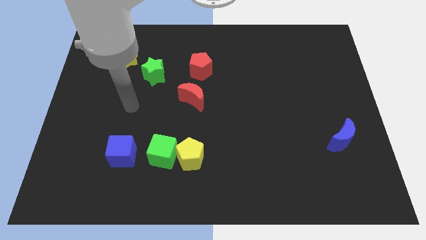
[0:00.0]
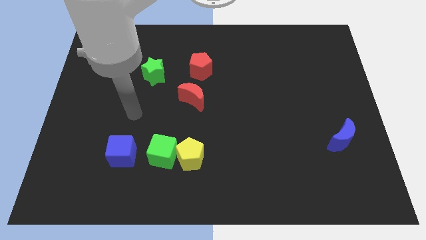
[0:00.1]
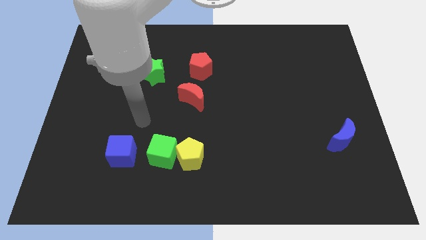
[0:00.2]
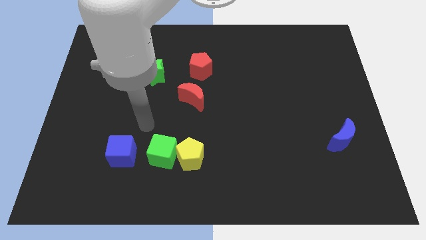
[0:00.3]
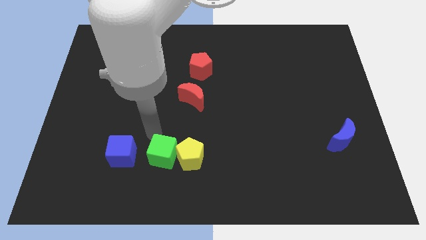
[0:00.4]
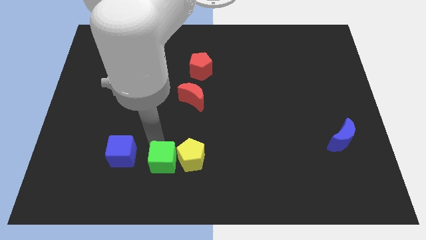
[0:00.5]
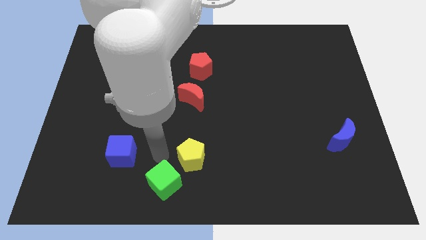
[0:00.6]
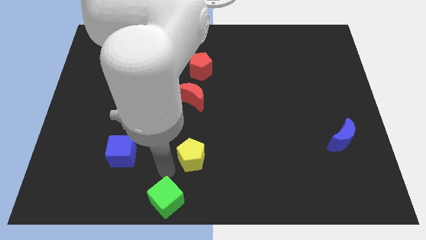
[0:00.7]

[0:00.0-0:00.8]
separate the yellow pentagon from the green cube

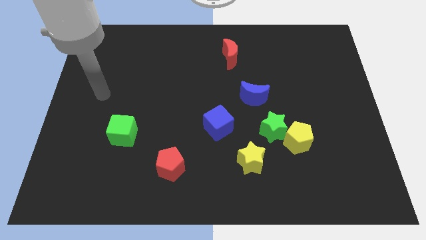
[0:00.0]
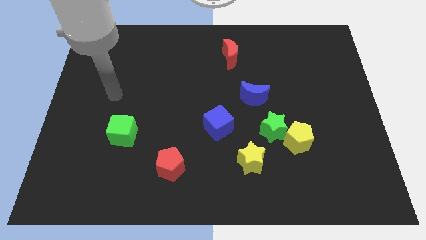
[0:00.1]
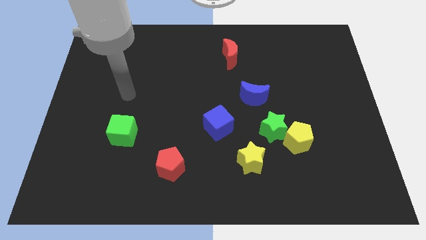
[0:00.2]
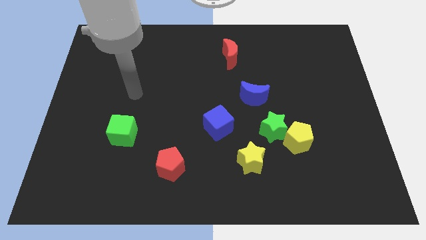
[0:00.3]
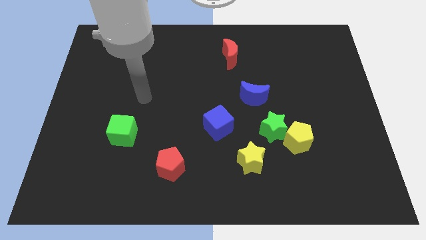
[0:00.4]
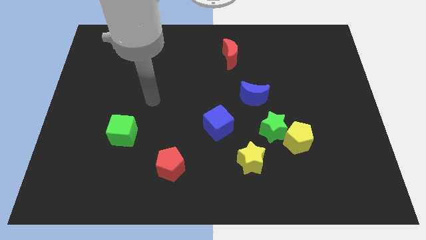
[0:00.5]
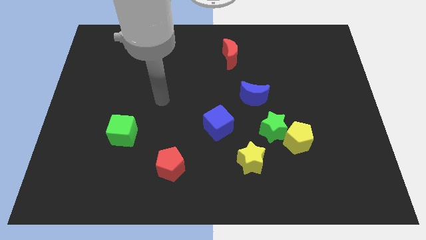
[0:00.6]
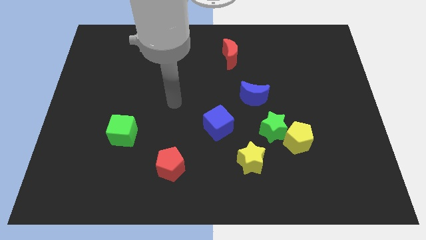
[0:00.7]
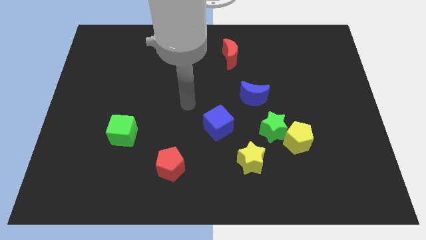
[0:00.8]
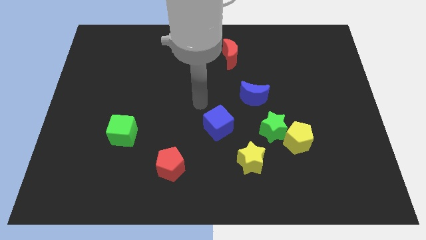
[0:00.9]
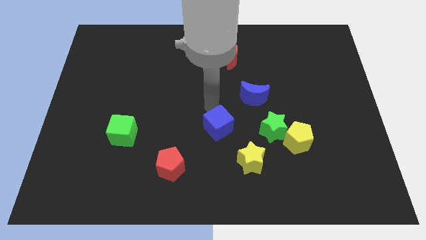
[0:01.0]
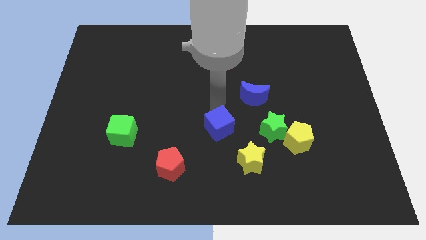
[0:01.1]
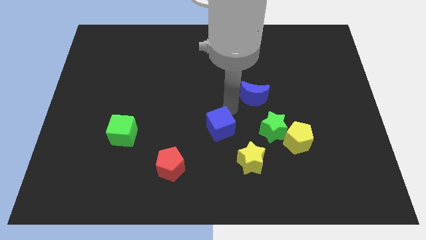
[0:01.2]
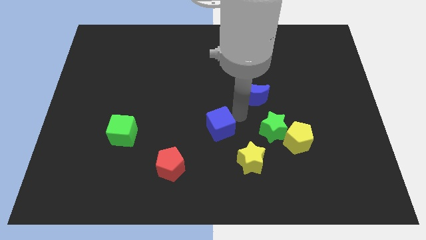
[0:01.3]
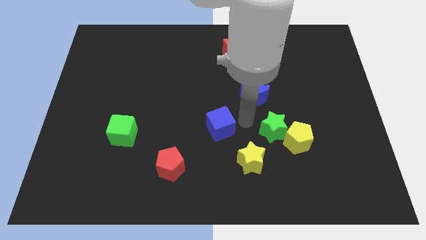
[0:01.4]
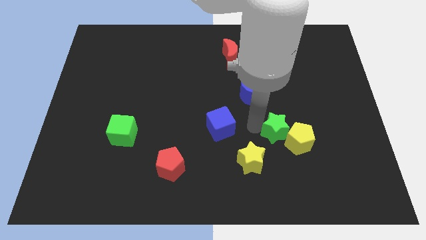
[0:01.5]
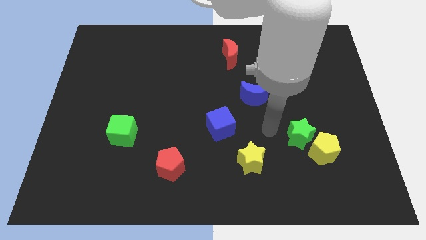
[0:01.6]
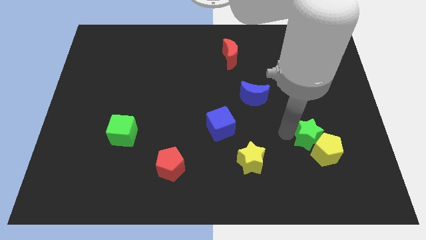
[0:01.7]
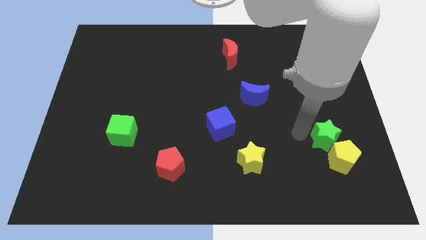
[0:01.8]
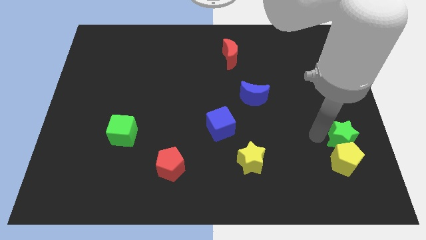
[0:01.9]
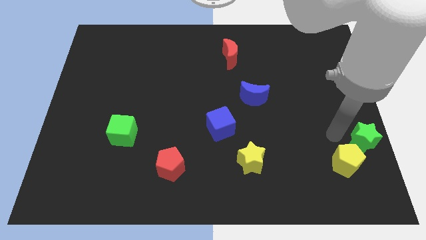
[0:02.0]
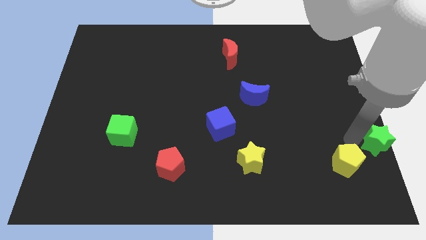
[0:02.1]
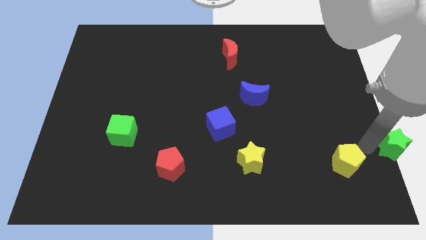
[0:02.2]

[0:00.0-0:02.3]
pull the yellow pentagon apart from the green star

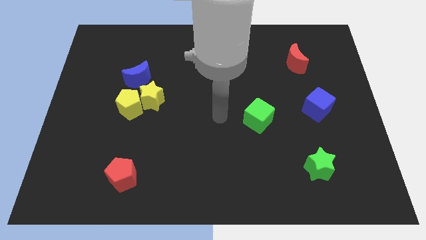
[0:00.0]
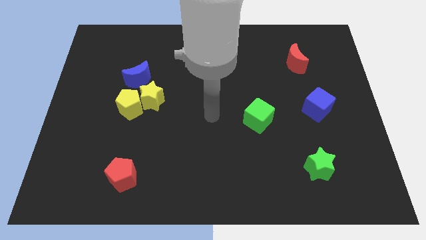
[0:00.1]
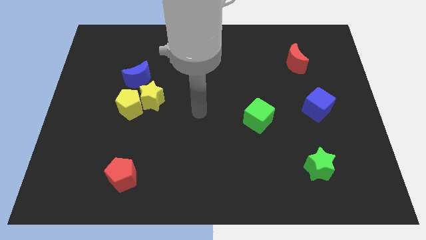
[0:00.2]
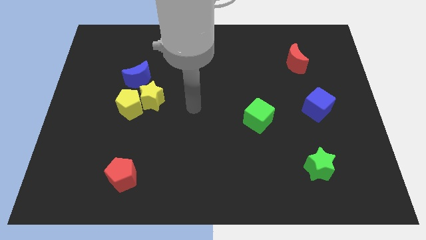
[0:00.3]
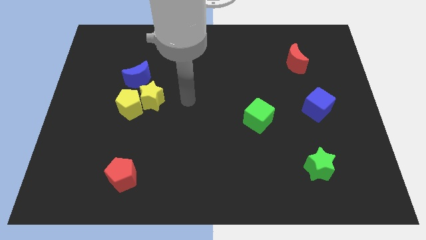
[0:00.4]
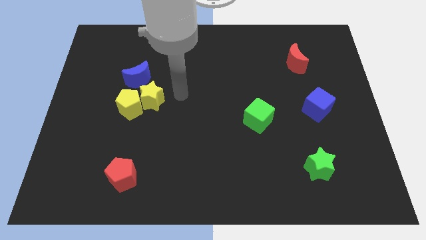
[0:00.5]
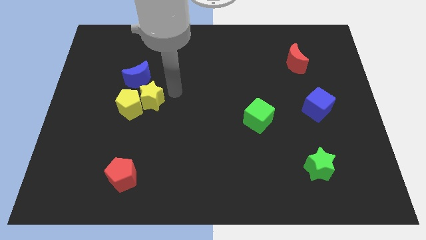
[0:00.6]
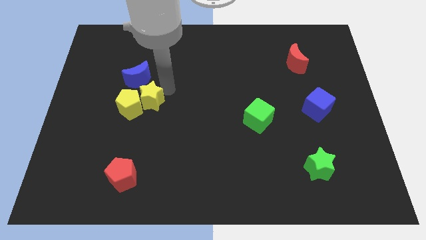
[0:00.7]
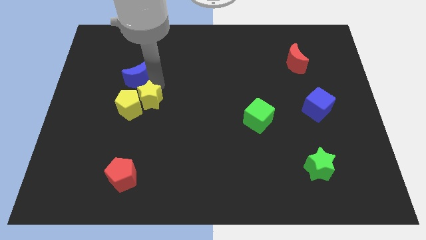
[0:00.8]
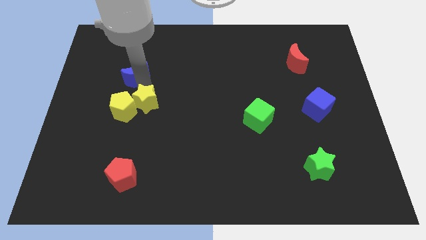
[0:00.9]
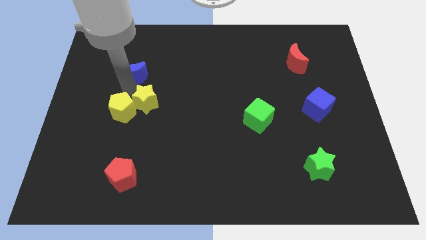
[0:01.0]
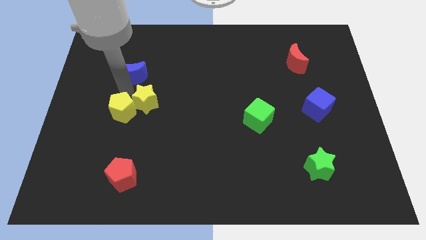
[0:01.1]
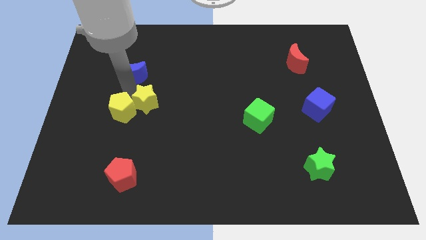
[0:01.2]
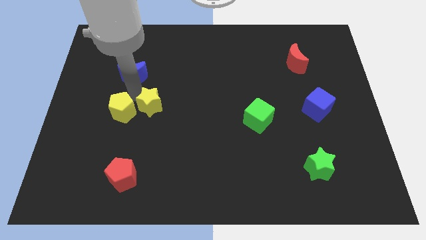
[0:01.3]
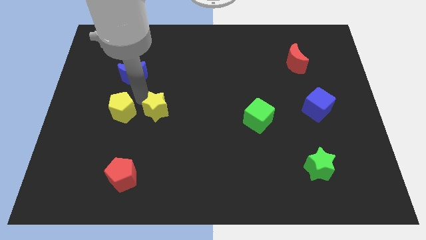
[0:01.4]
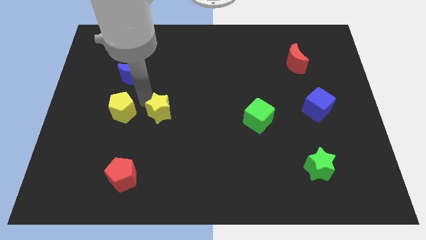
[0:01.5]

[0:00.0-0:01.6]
pull the yellow star apart from the yellow pentagon and blue moon

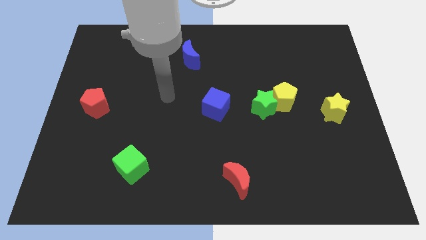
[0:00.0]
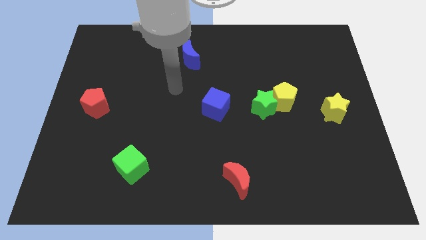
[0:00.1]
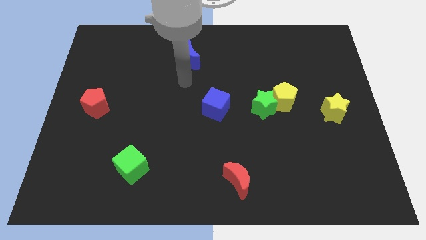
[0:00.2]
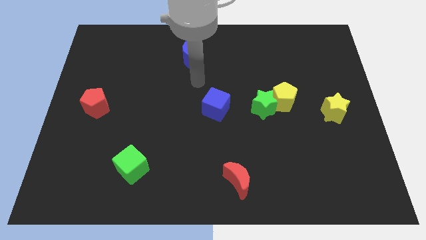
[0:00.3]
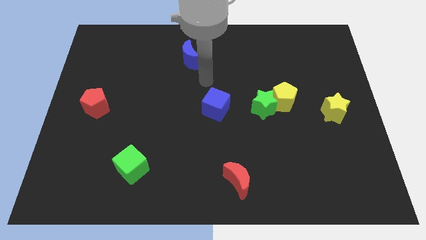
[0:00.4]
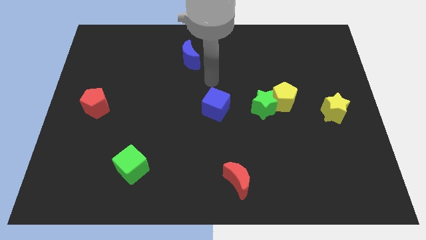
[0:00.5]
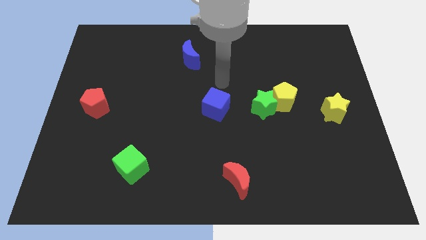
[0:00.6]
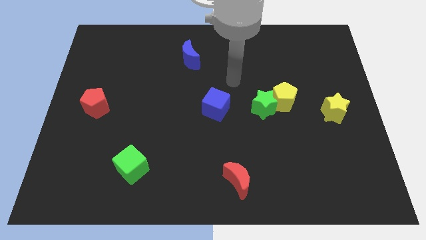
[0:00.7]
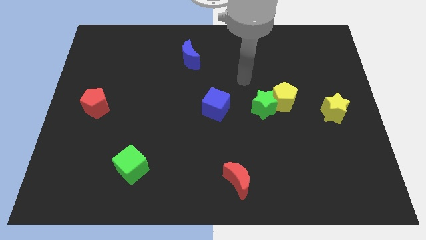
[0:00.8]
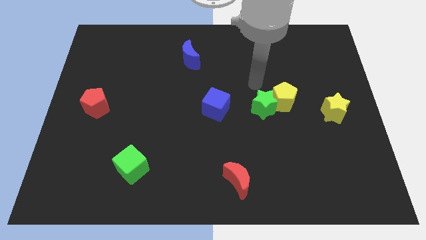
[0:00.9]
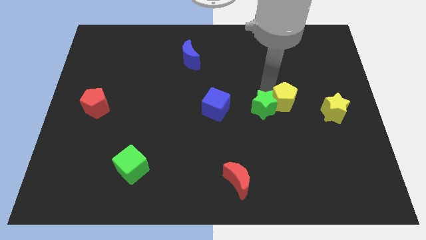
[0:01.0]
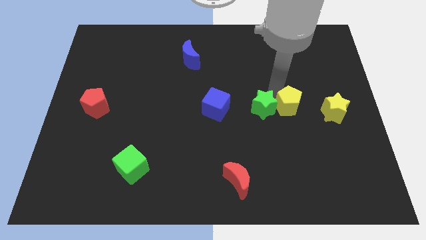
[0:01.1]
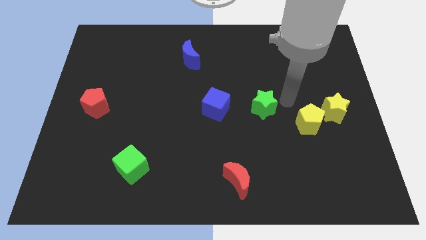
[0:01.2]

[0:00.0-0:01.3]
pull the green star apart from the yellow pentagon

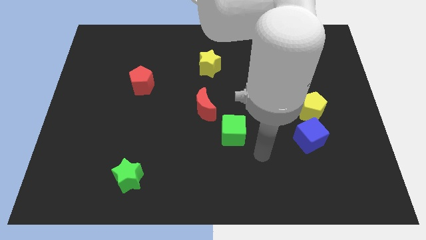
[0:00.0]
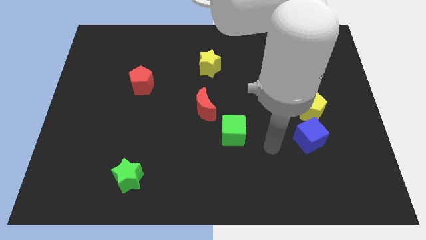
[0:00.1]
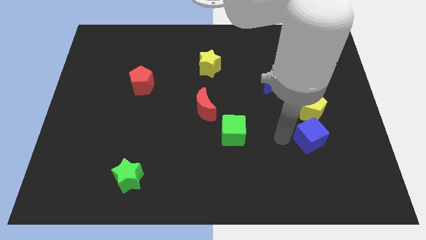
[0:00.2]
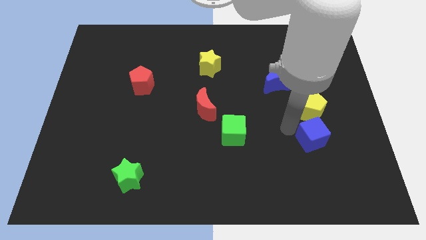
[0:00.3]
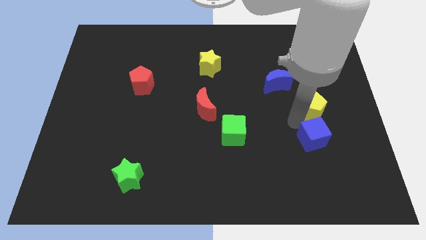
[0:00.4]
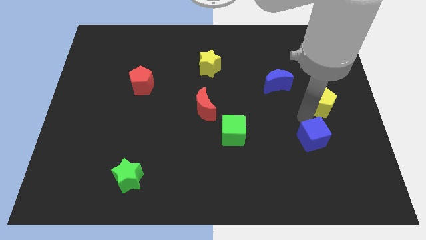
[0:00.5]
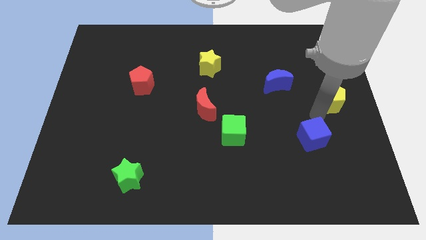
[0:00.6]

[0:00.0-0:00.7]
move the blue cube away from the yellow pentagon

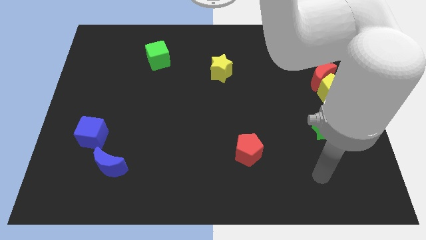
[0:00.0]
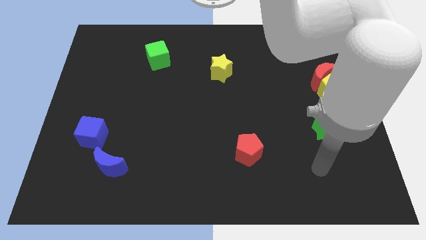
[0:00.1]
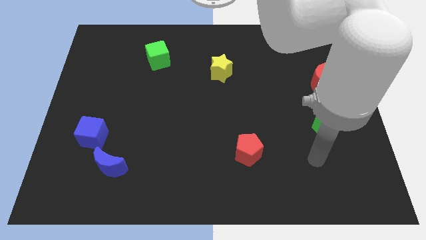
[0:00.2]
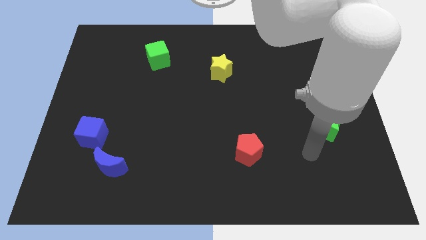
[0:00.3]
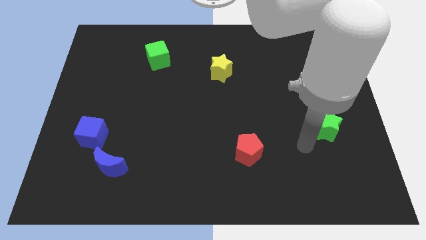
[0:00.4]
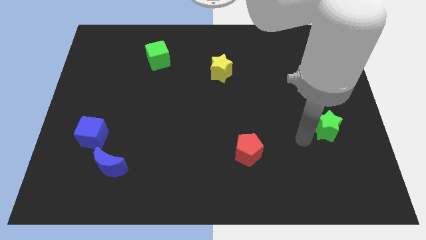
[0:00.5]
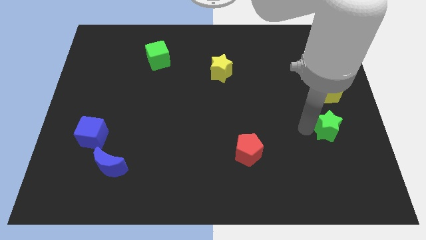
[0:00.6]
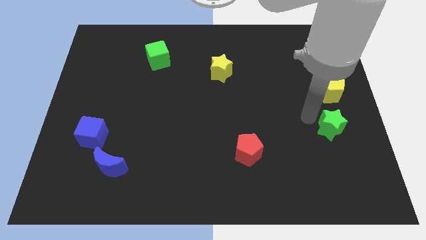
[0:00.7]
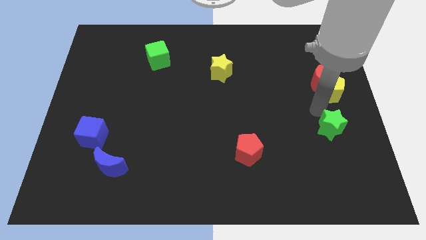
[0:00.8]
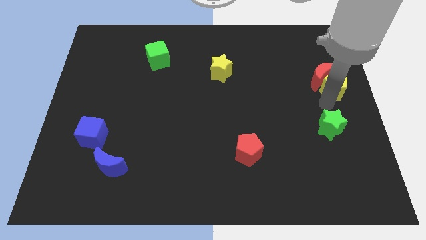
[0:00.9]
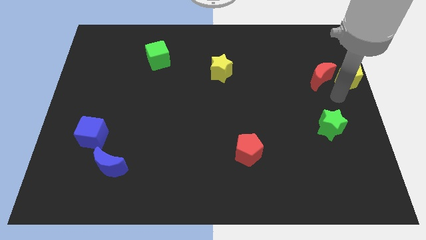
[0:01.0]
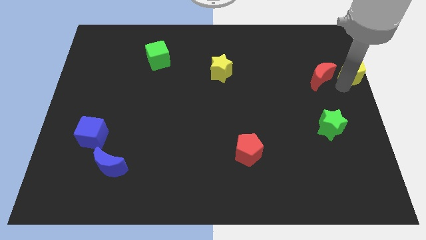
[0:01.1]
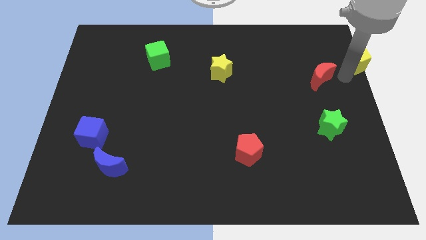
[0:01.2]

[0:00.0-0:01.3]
separate the red moon from the yellow pentagon

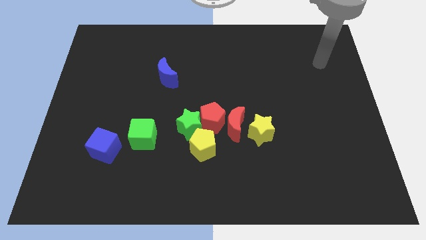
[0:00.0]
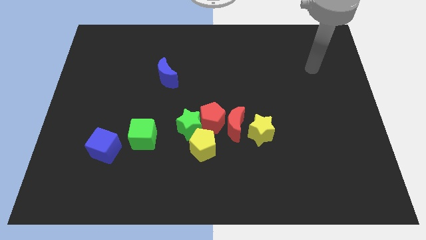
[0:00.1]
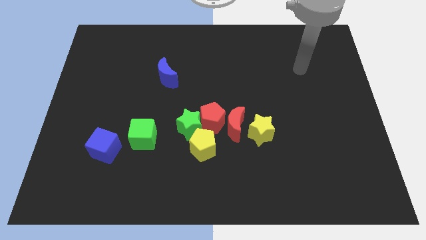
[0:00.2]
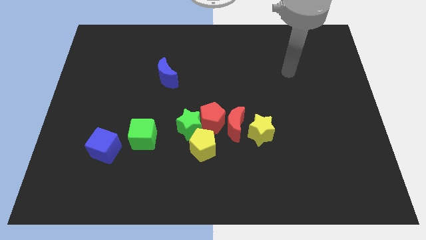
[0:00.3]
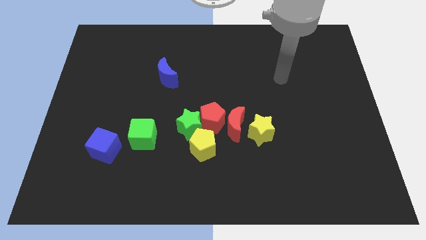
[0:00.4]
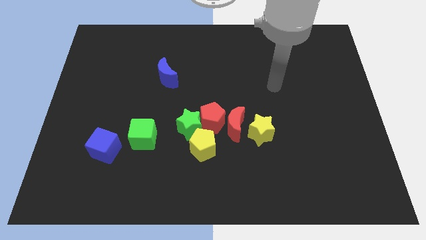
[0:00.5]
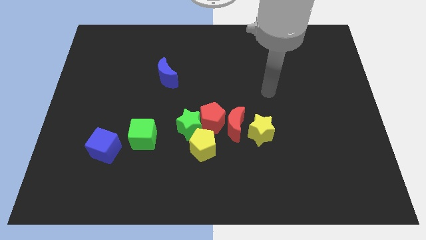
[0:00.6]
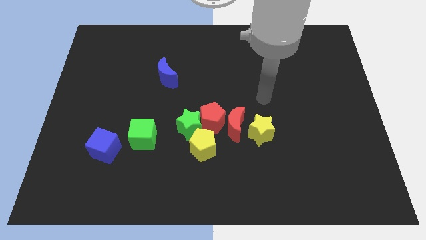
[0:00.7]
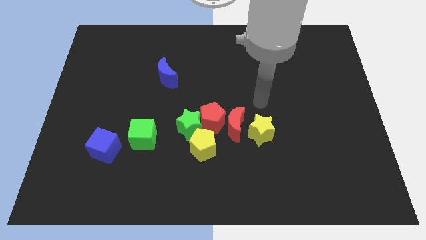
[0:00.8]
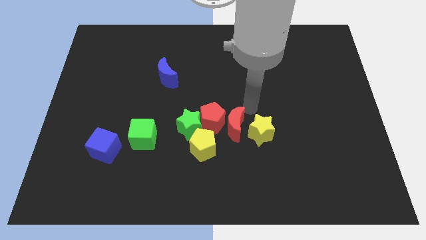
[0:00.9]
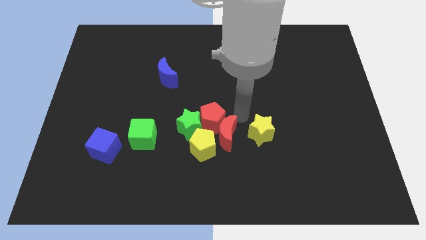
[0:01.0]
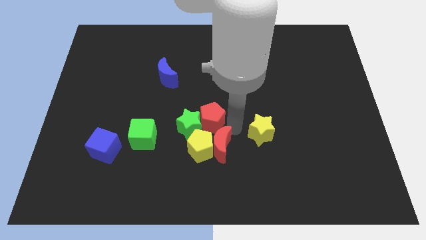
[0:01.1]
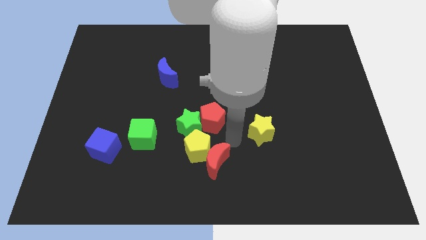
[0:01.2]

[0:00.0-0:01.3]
separate the yellow star from the red moon
